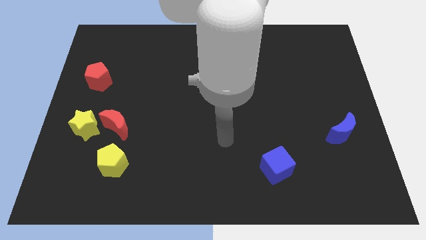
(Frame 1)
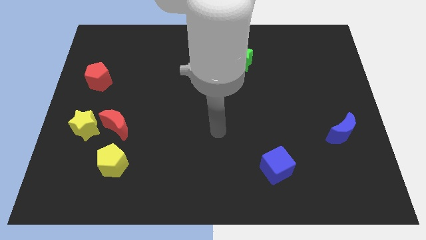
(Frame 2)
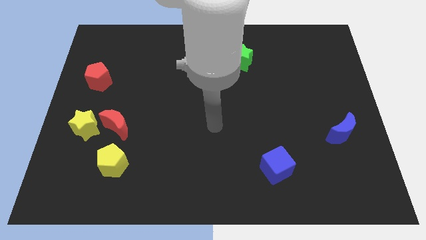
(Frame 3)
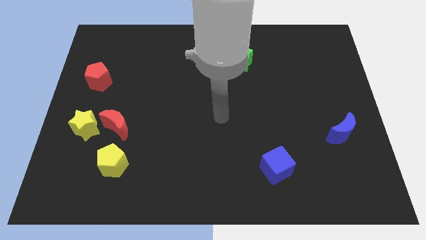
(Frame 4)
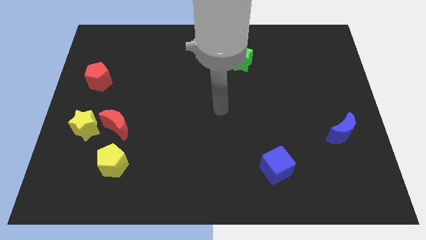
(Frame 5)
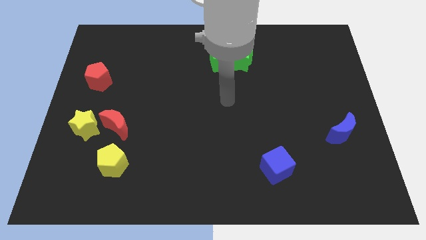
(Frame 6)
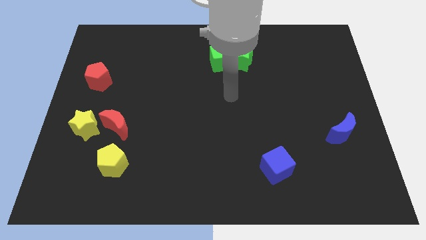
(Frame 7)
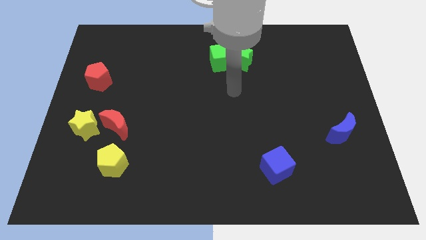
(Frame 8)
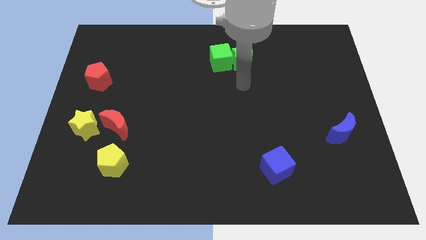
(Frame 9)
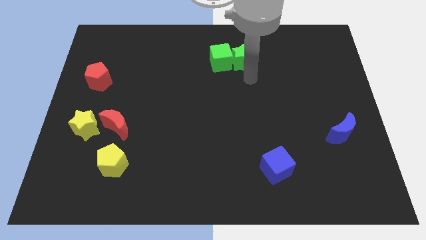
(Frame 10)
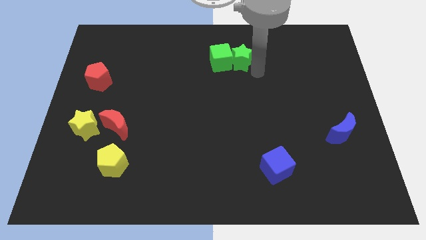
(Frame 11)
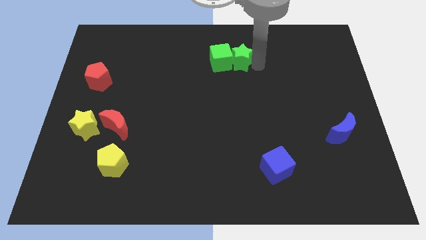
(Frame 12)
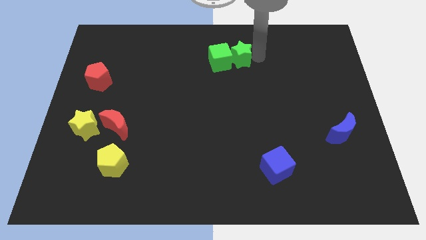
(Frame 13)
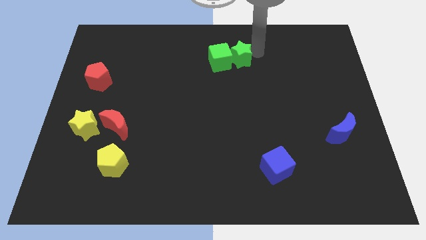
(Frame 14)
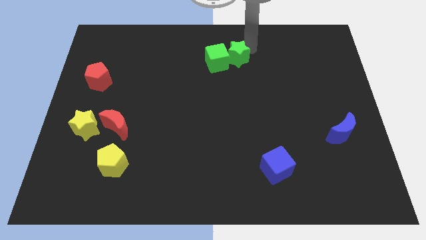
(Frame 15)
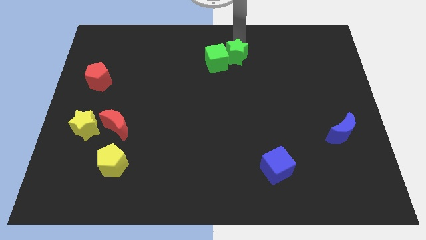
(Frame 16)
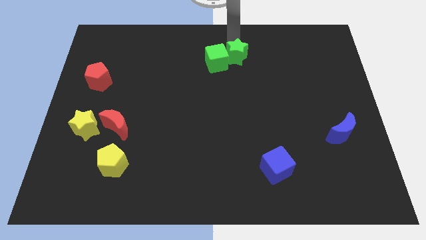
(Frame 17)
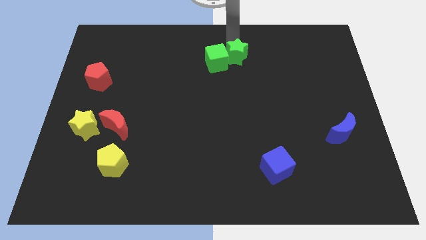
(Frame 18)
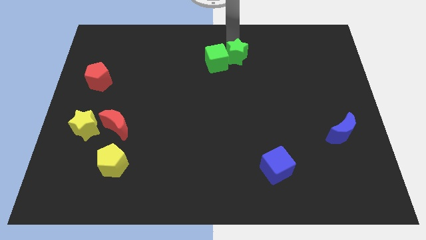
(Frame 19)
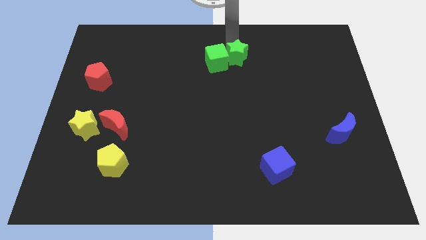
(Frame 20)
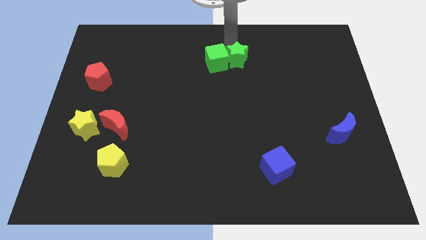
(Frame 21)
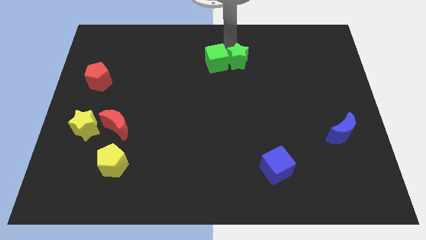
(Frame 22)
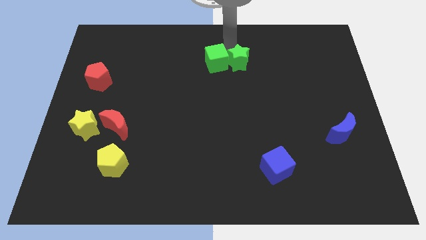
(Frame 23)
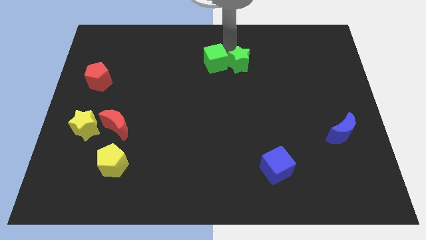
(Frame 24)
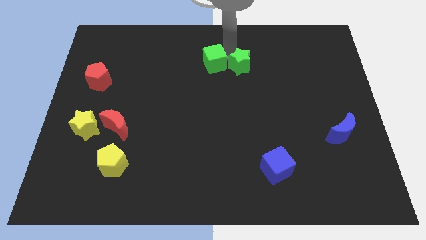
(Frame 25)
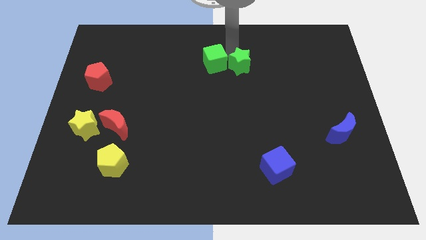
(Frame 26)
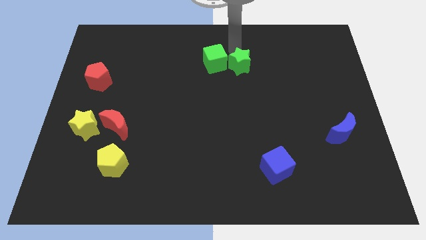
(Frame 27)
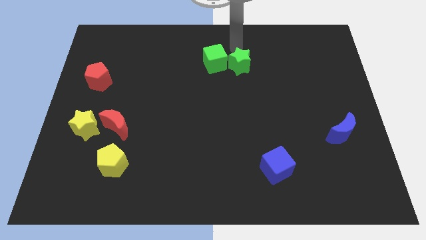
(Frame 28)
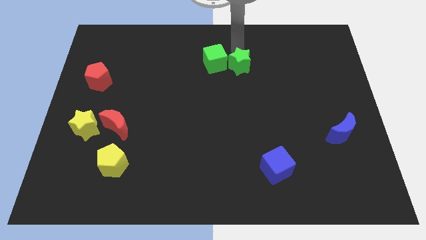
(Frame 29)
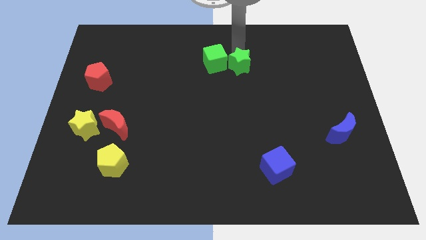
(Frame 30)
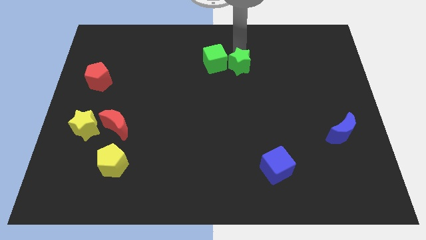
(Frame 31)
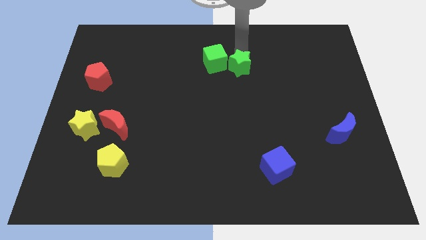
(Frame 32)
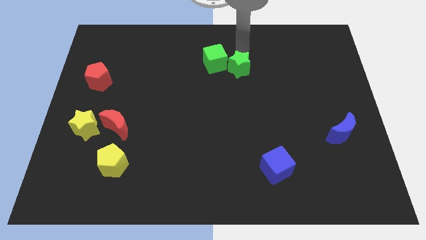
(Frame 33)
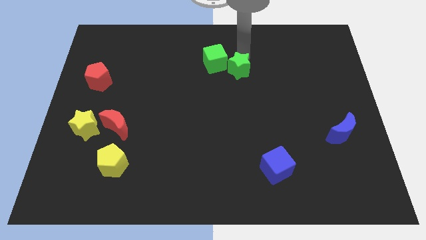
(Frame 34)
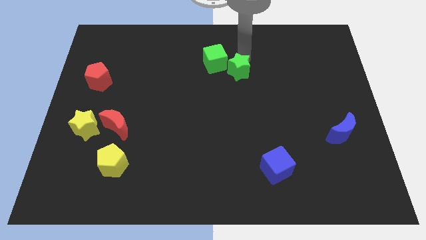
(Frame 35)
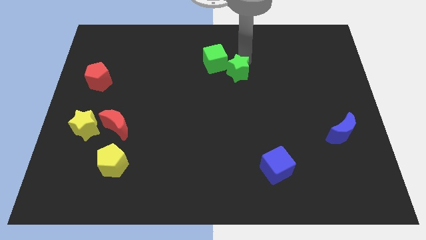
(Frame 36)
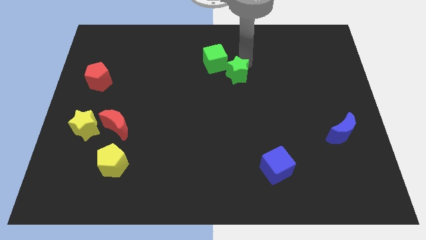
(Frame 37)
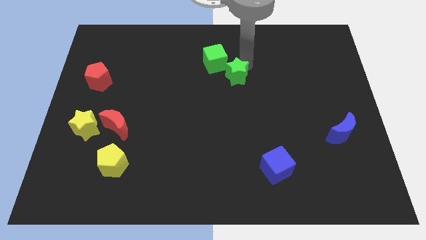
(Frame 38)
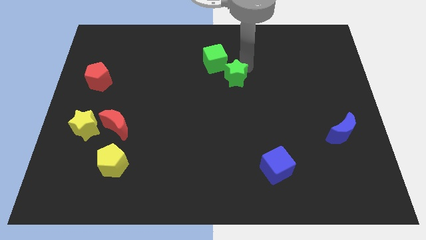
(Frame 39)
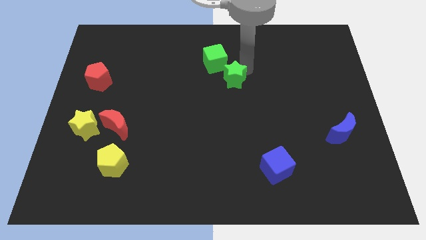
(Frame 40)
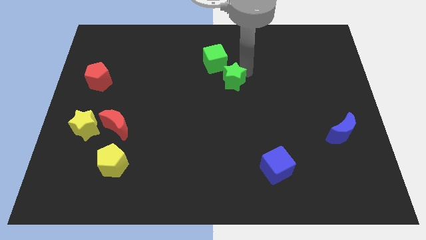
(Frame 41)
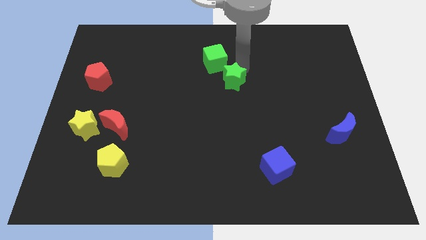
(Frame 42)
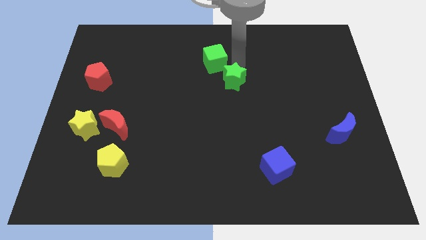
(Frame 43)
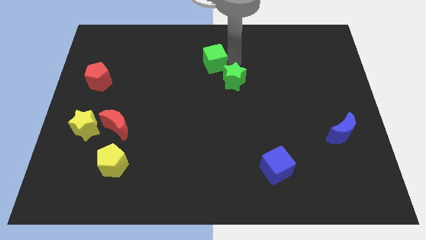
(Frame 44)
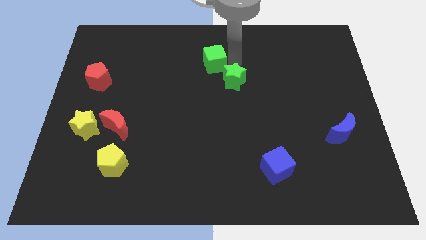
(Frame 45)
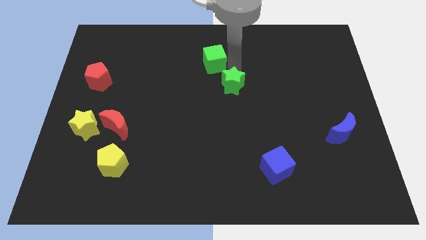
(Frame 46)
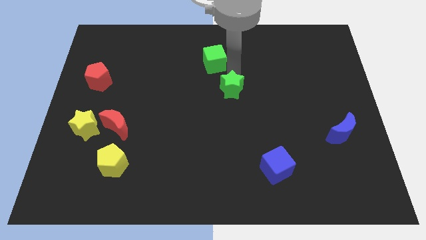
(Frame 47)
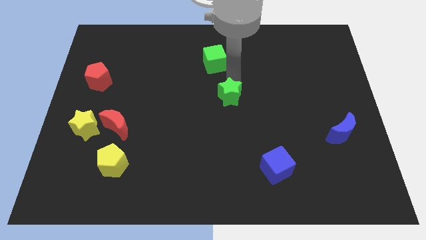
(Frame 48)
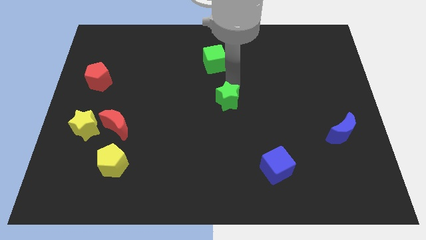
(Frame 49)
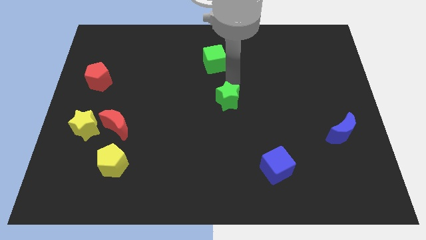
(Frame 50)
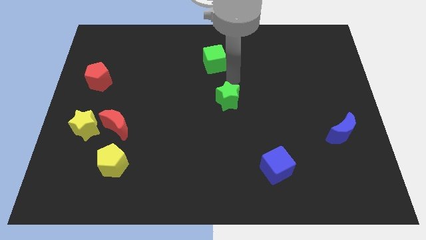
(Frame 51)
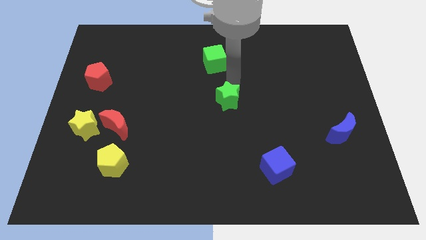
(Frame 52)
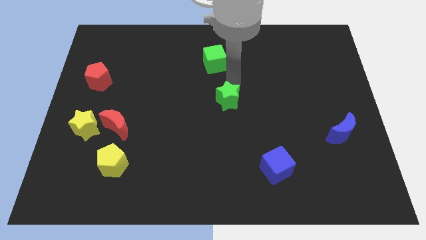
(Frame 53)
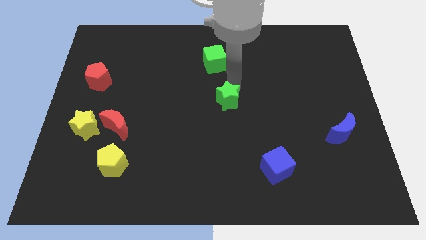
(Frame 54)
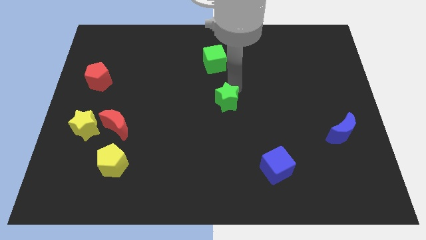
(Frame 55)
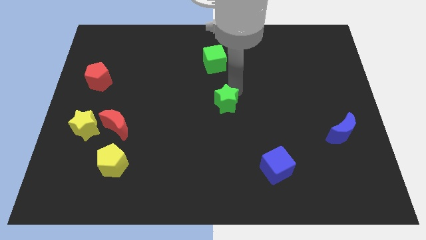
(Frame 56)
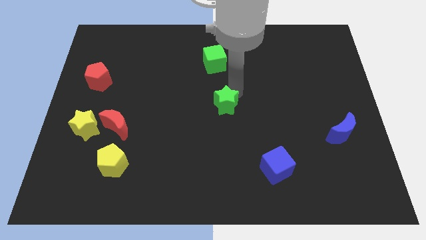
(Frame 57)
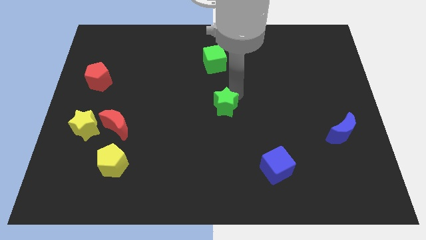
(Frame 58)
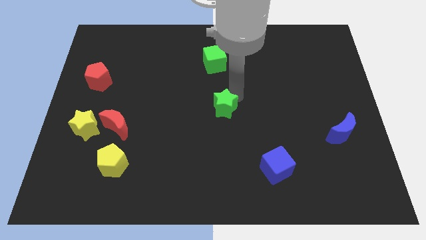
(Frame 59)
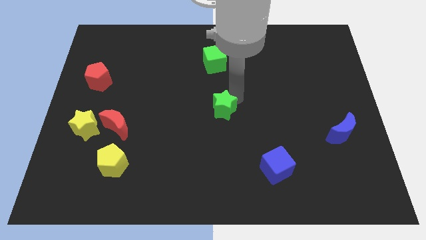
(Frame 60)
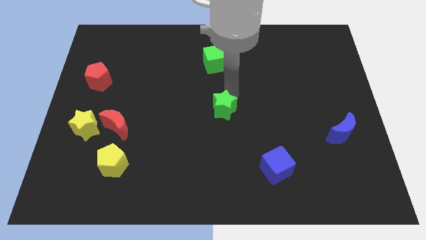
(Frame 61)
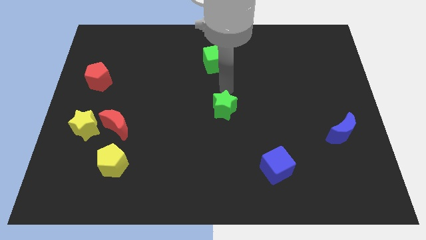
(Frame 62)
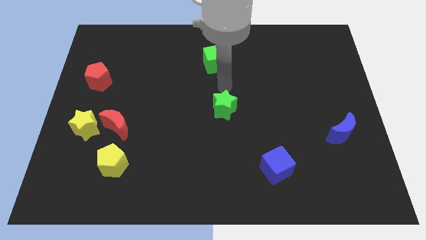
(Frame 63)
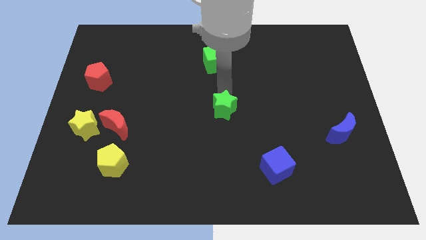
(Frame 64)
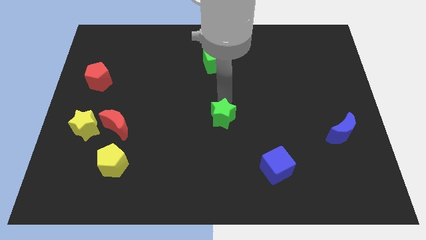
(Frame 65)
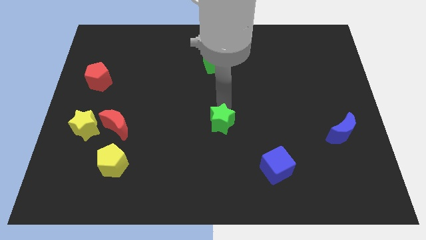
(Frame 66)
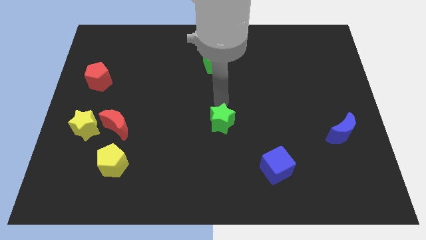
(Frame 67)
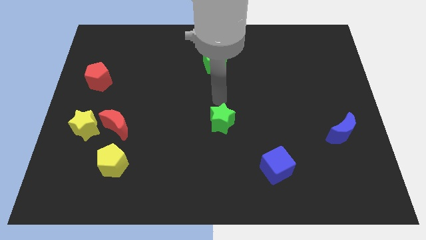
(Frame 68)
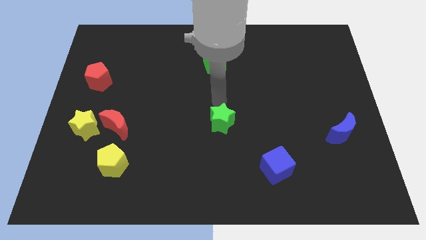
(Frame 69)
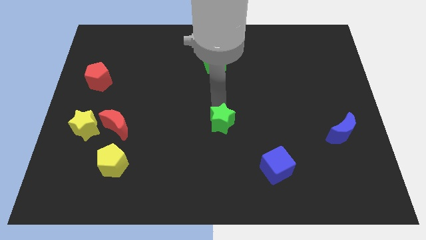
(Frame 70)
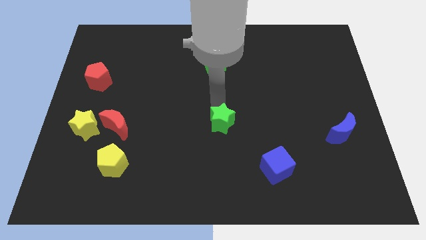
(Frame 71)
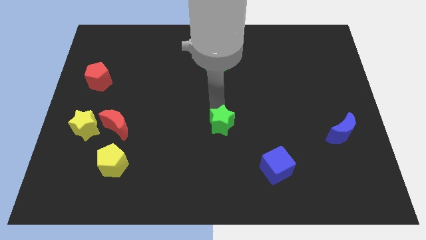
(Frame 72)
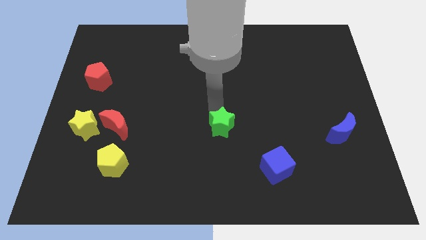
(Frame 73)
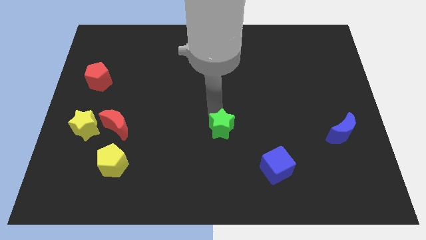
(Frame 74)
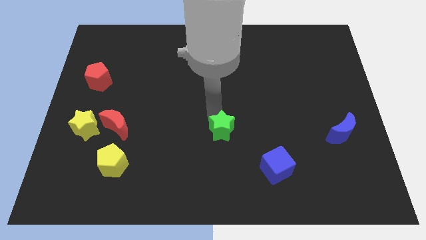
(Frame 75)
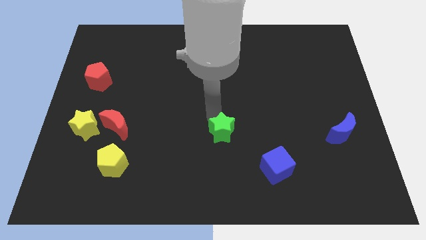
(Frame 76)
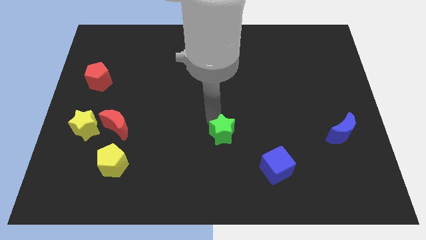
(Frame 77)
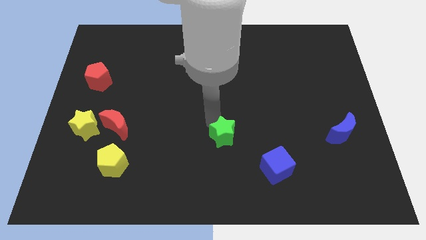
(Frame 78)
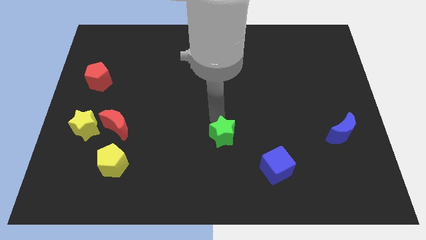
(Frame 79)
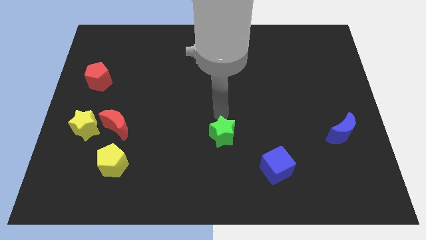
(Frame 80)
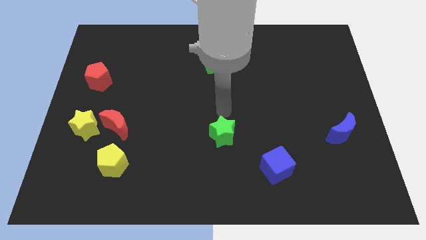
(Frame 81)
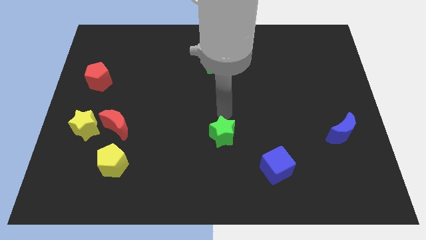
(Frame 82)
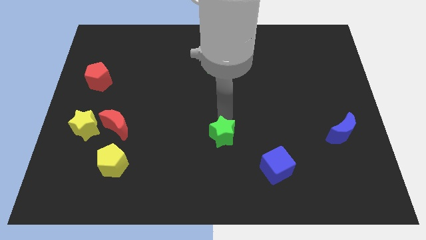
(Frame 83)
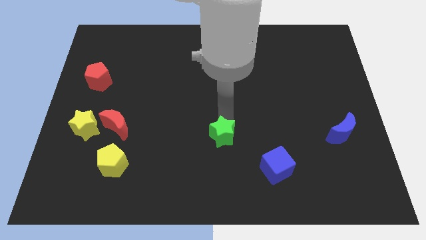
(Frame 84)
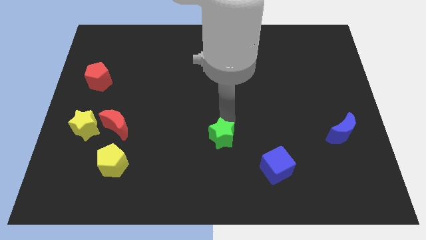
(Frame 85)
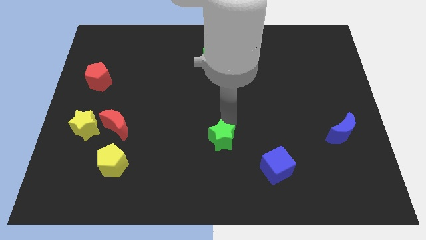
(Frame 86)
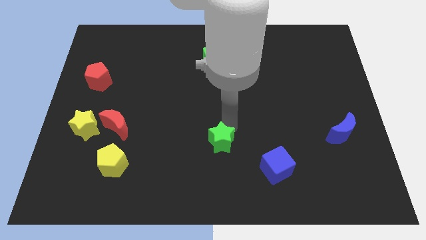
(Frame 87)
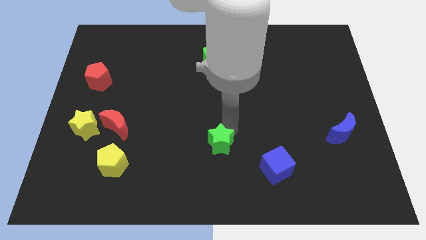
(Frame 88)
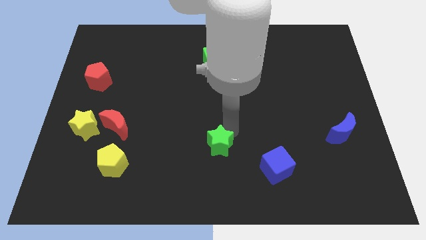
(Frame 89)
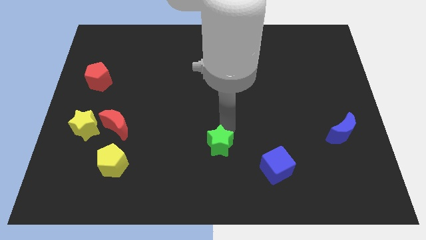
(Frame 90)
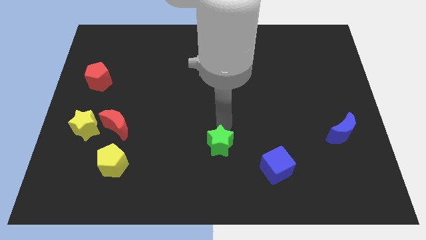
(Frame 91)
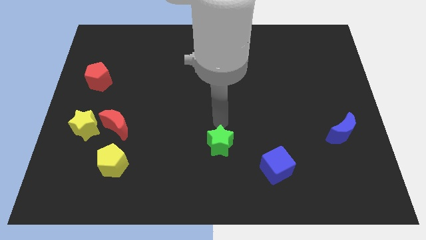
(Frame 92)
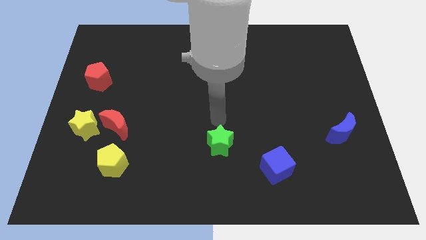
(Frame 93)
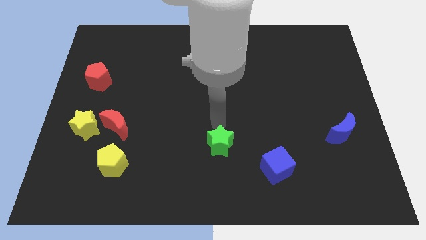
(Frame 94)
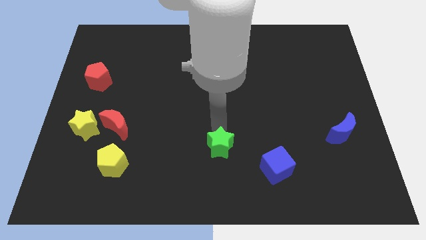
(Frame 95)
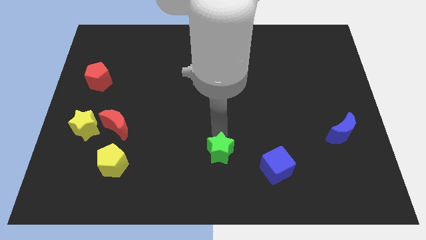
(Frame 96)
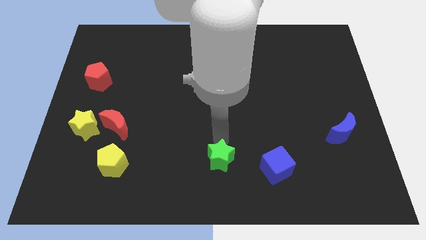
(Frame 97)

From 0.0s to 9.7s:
put the green star to the bottom
